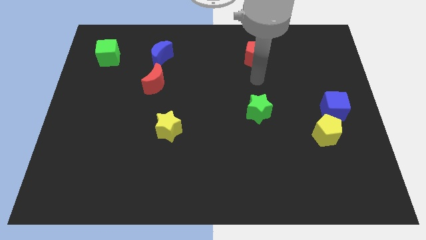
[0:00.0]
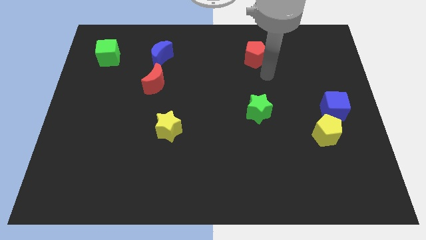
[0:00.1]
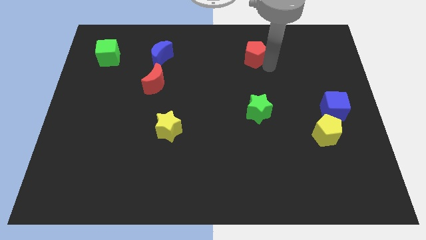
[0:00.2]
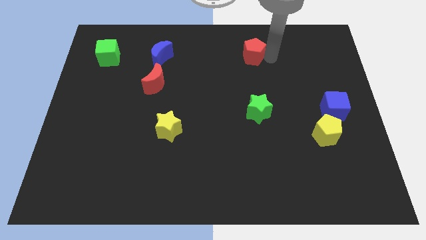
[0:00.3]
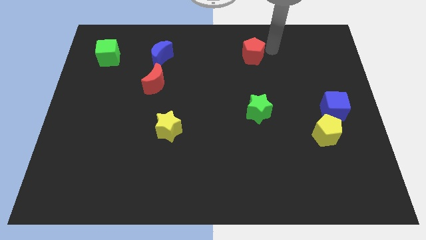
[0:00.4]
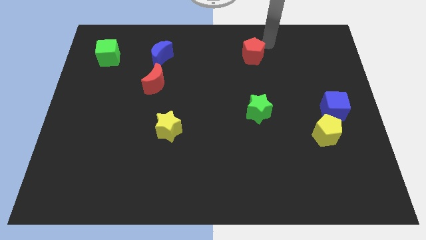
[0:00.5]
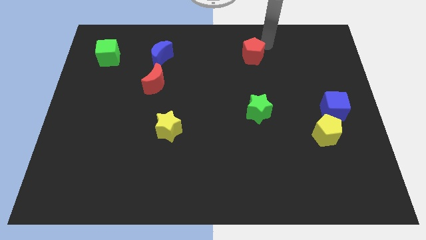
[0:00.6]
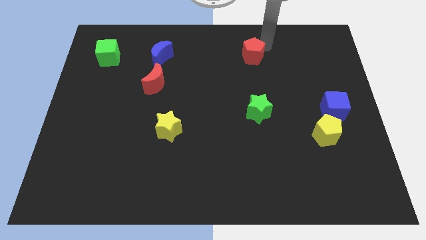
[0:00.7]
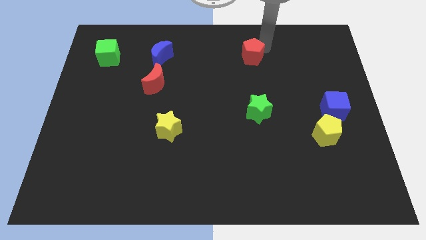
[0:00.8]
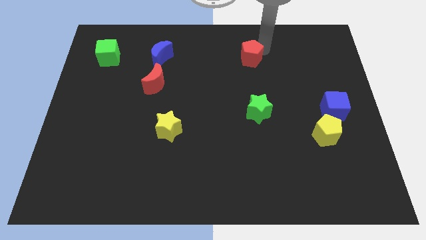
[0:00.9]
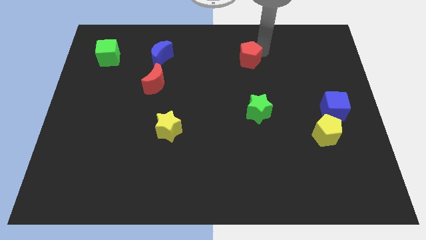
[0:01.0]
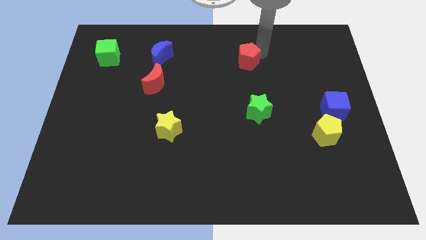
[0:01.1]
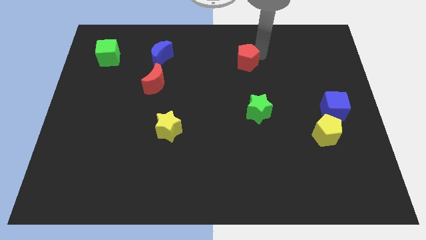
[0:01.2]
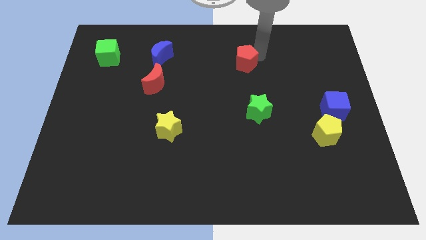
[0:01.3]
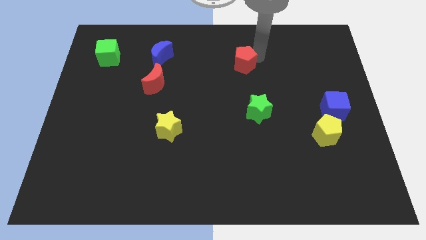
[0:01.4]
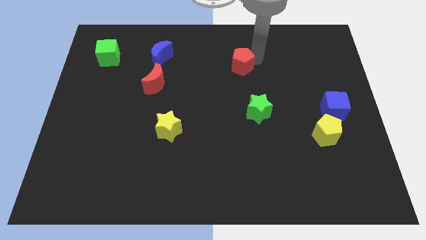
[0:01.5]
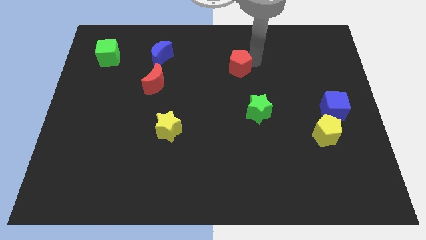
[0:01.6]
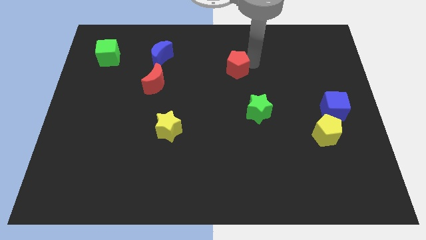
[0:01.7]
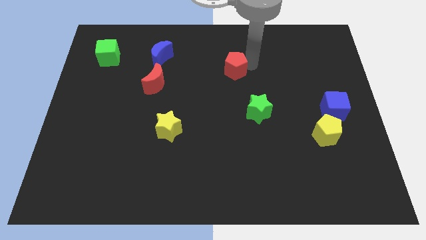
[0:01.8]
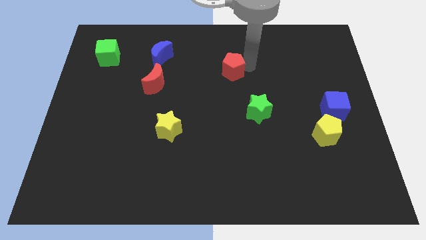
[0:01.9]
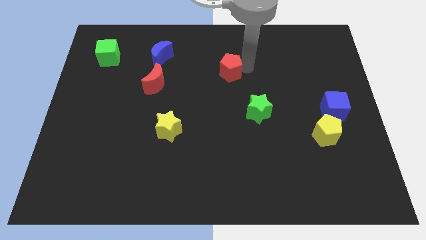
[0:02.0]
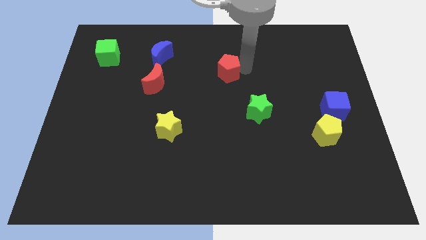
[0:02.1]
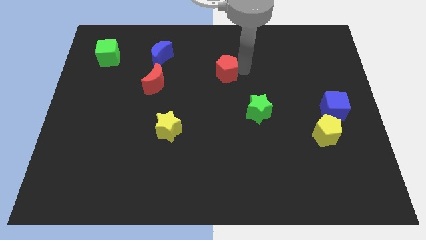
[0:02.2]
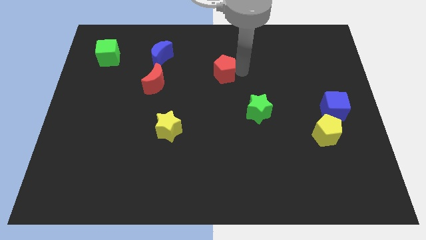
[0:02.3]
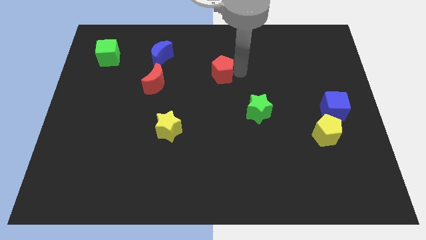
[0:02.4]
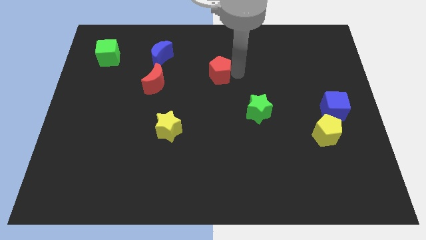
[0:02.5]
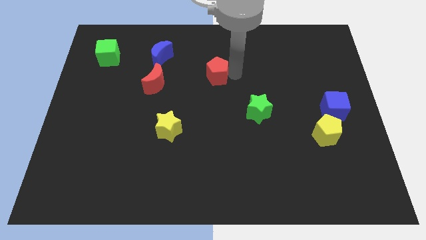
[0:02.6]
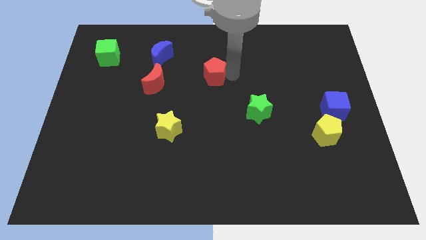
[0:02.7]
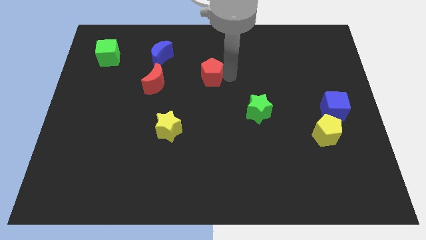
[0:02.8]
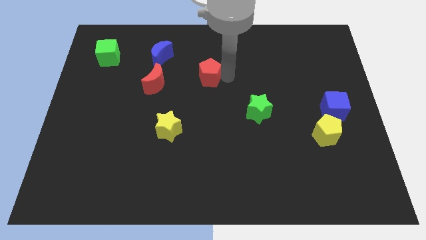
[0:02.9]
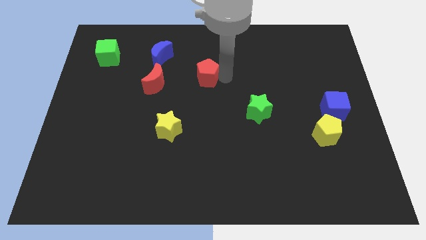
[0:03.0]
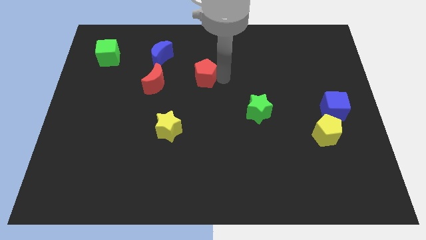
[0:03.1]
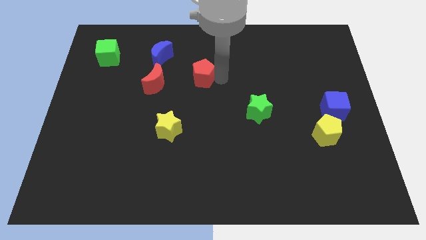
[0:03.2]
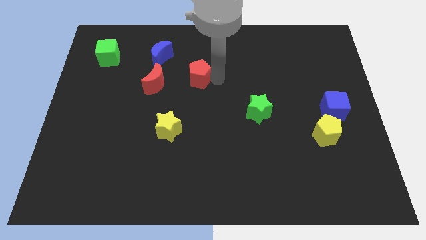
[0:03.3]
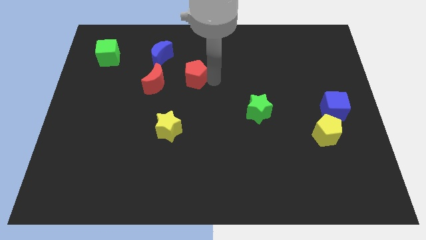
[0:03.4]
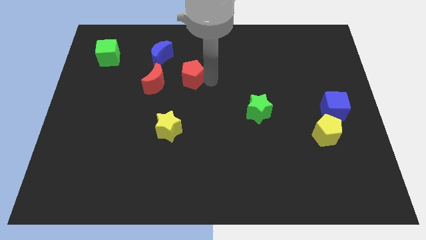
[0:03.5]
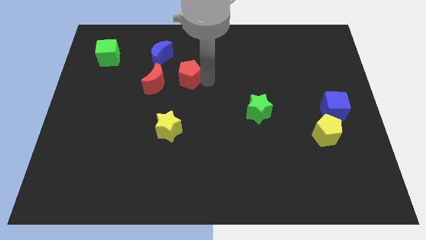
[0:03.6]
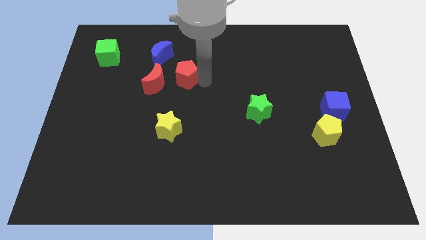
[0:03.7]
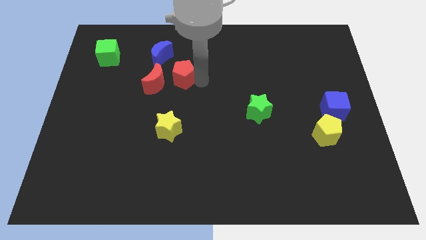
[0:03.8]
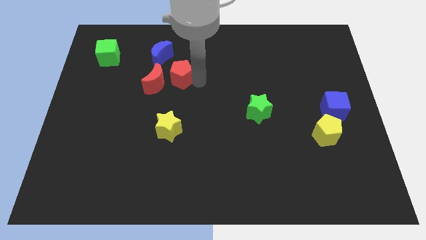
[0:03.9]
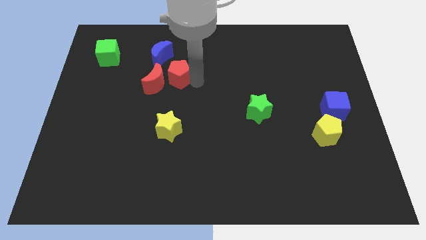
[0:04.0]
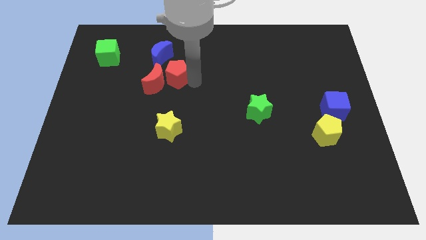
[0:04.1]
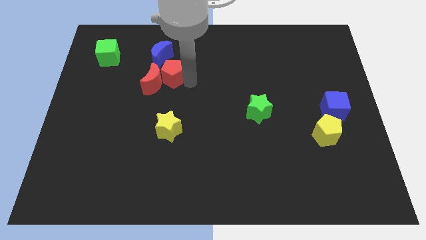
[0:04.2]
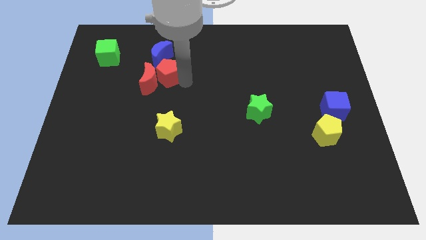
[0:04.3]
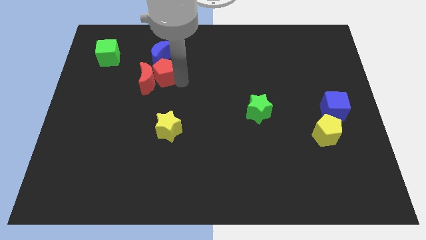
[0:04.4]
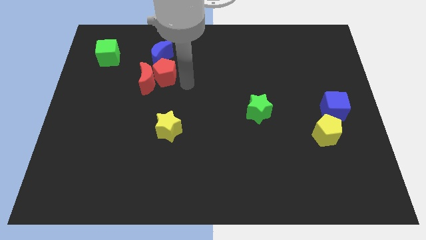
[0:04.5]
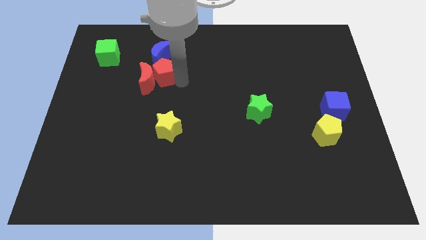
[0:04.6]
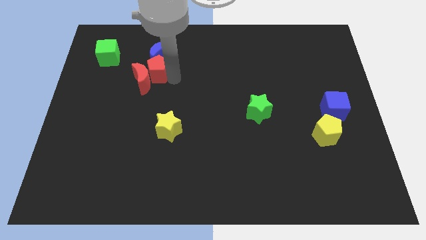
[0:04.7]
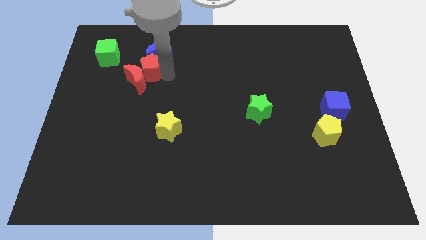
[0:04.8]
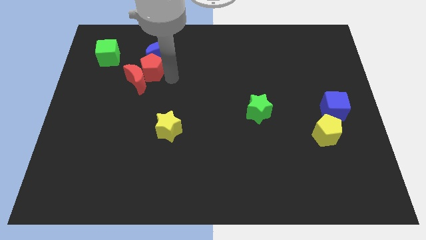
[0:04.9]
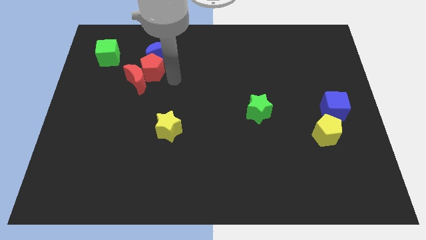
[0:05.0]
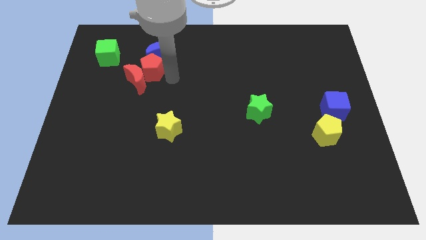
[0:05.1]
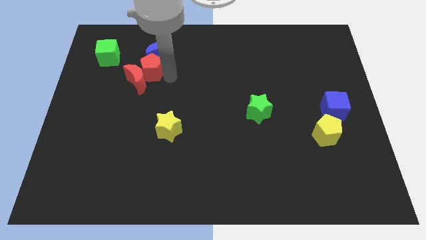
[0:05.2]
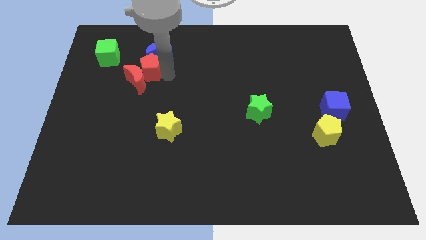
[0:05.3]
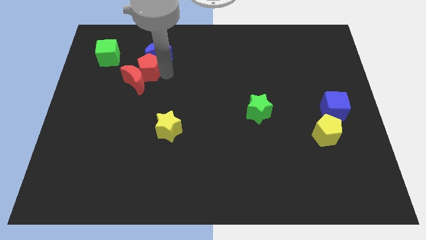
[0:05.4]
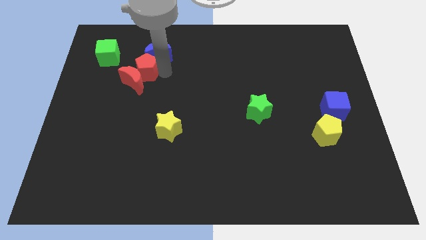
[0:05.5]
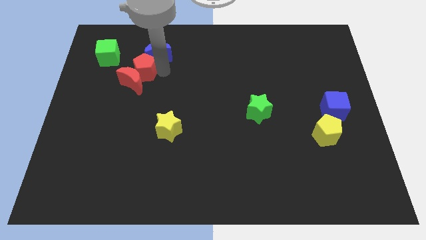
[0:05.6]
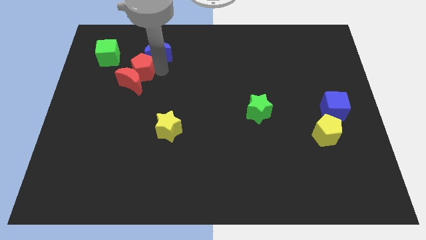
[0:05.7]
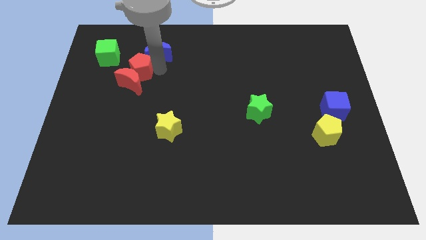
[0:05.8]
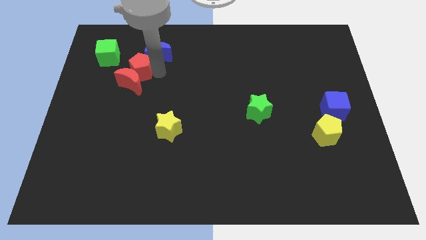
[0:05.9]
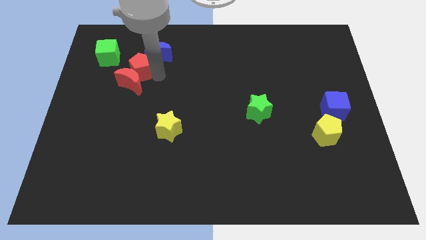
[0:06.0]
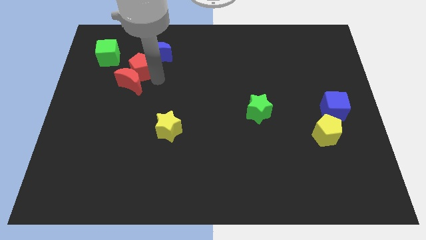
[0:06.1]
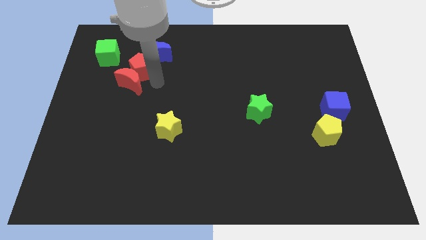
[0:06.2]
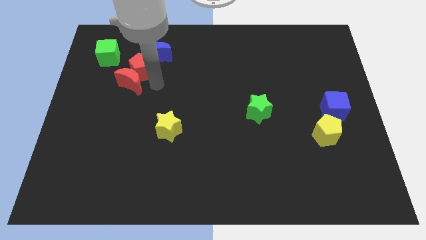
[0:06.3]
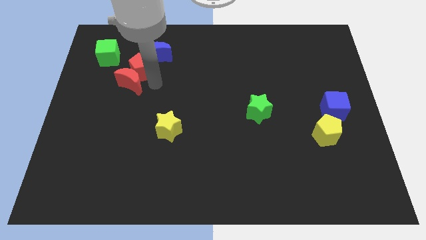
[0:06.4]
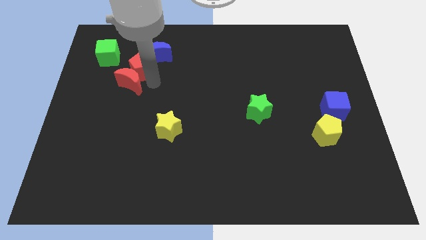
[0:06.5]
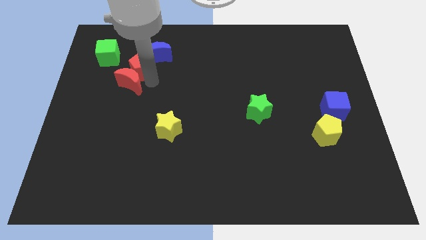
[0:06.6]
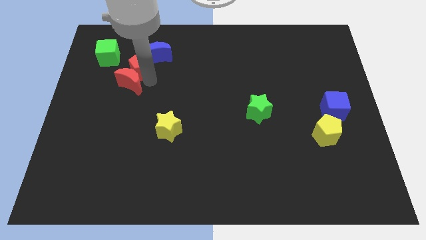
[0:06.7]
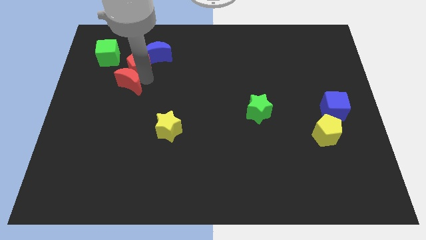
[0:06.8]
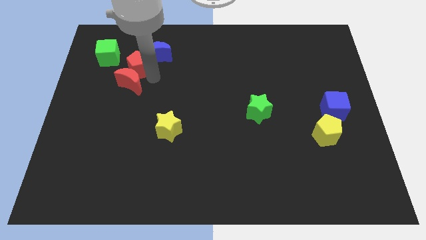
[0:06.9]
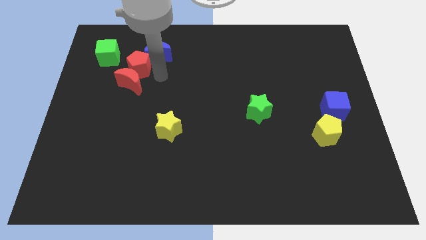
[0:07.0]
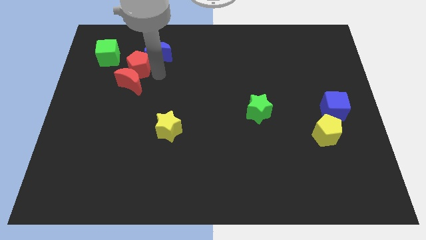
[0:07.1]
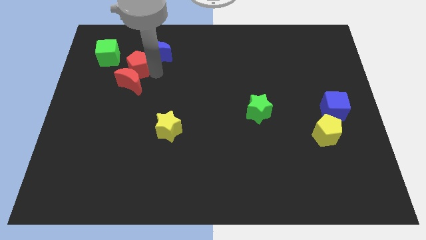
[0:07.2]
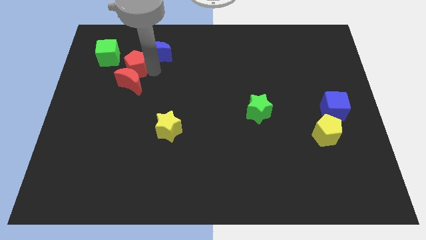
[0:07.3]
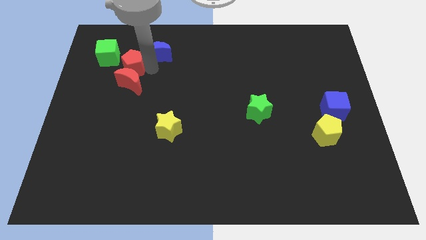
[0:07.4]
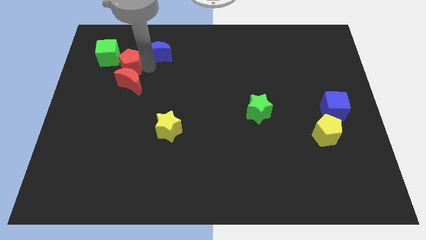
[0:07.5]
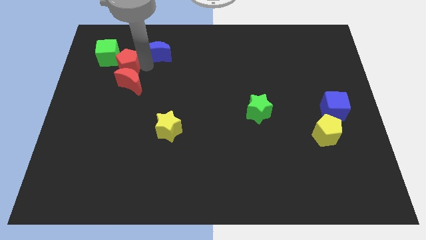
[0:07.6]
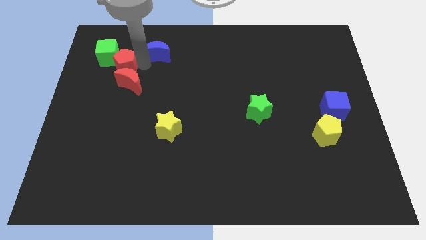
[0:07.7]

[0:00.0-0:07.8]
slide the red pentagon close to the green cube
